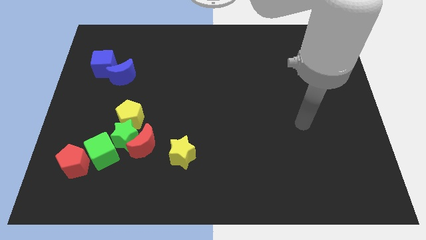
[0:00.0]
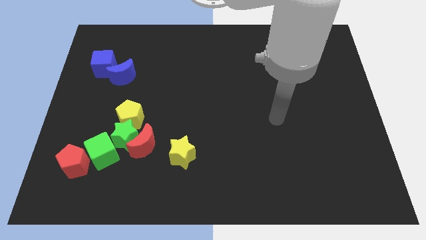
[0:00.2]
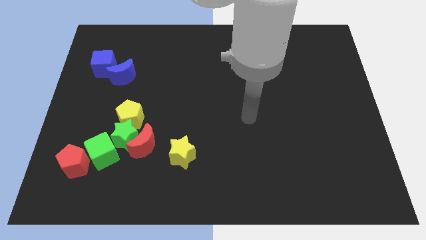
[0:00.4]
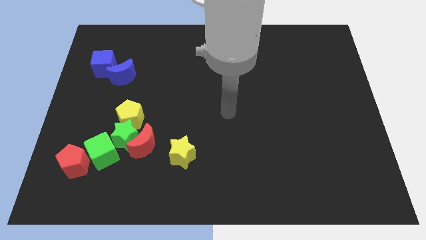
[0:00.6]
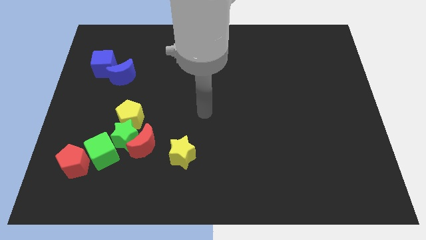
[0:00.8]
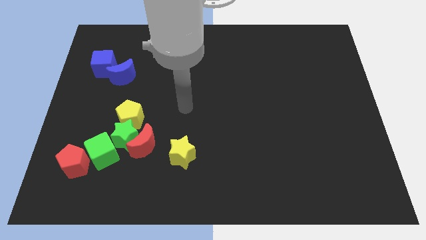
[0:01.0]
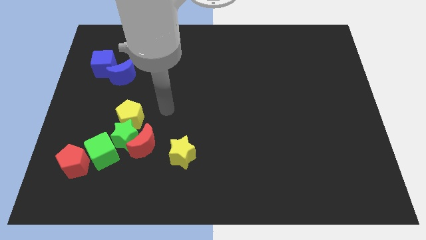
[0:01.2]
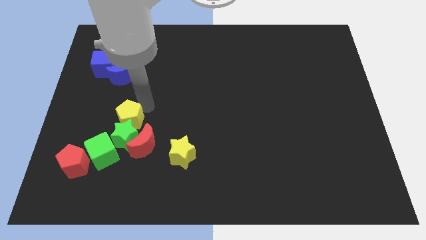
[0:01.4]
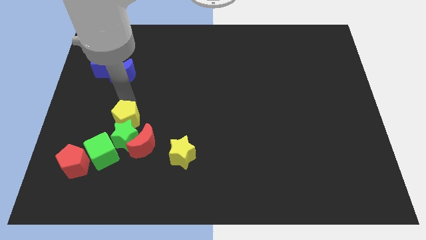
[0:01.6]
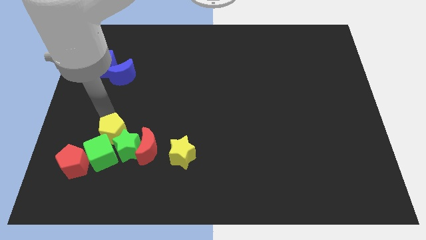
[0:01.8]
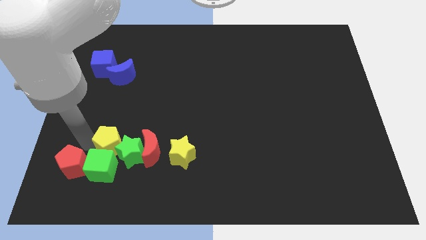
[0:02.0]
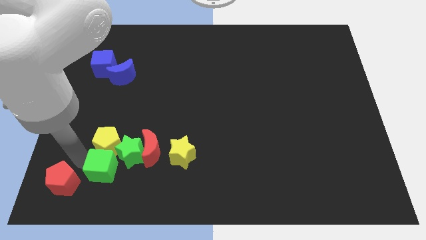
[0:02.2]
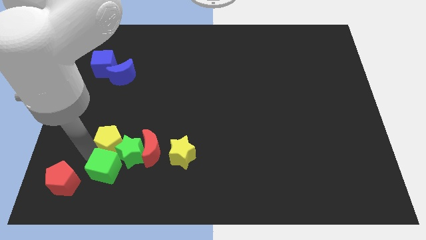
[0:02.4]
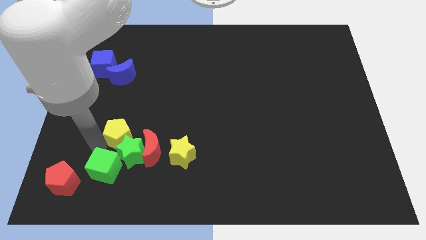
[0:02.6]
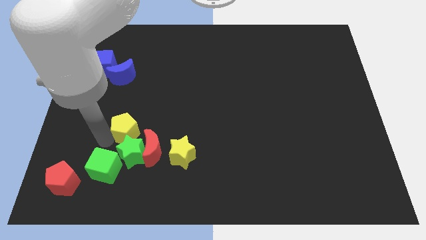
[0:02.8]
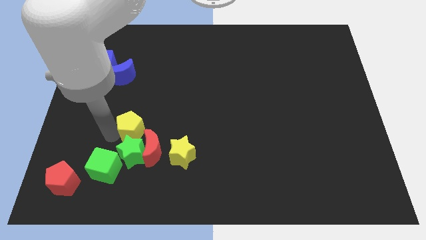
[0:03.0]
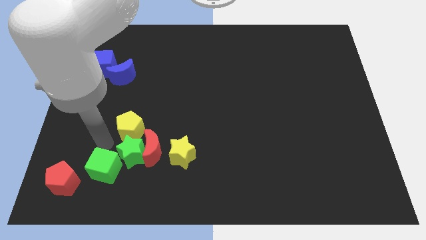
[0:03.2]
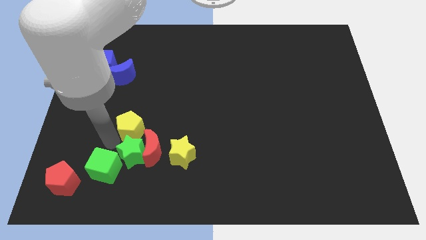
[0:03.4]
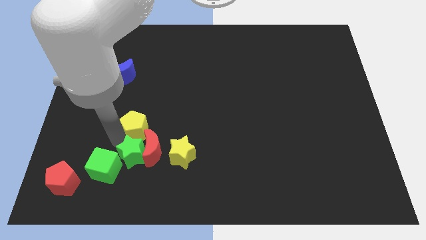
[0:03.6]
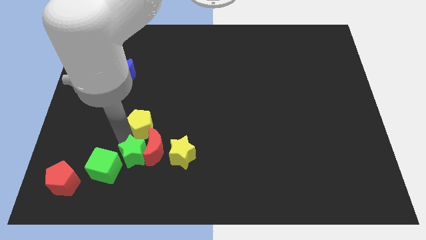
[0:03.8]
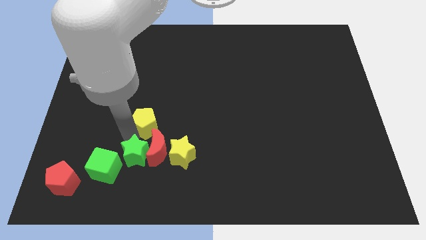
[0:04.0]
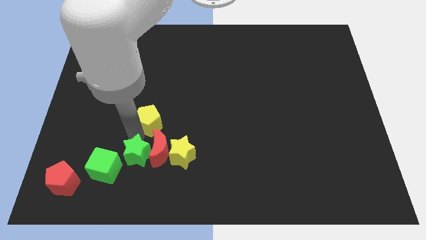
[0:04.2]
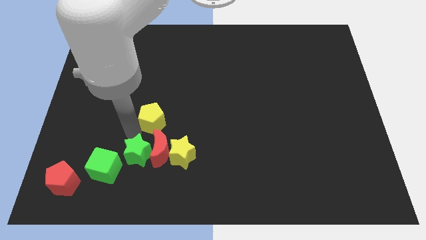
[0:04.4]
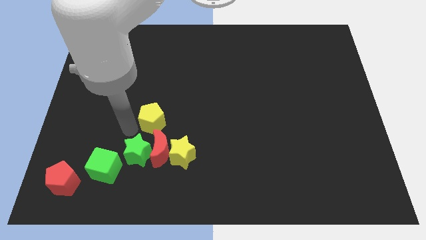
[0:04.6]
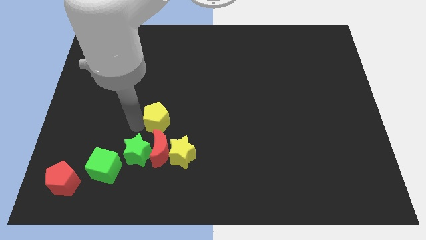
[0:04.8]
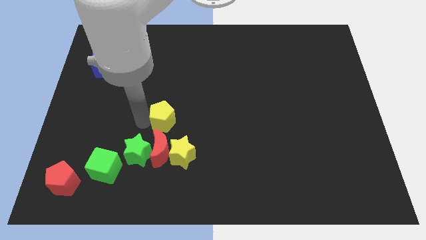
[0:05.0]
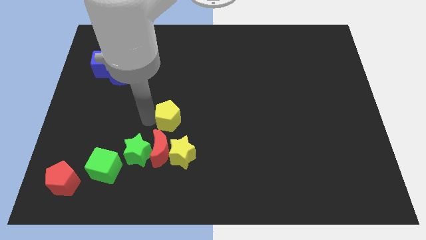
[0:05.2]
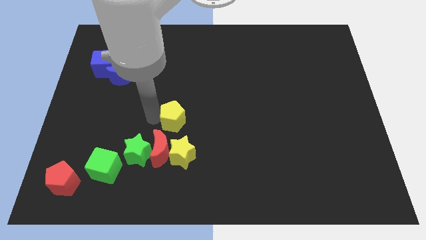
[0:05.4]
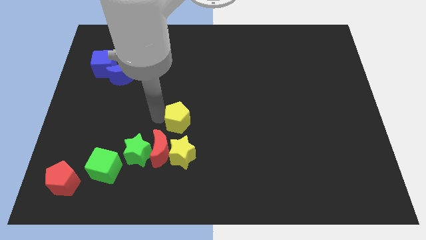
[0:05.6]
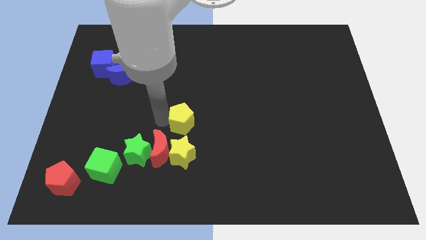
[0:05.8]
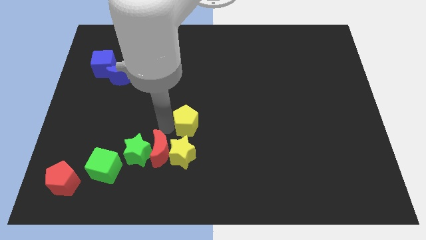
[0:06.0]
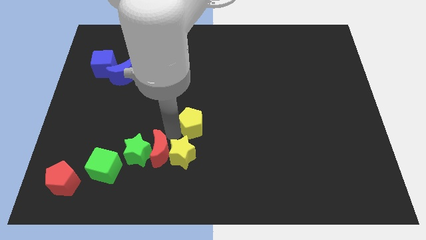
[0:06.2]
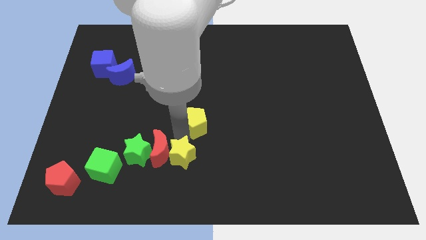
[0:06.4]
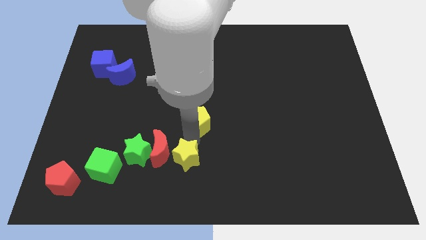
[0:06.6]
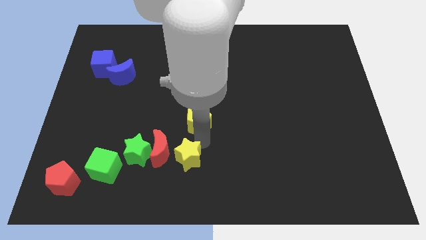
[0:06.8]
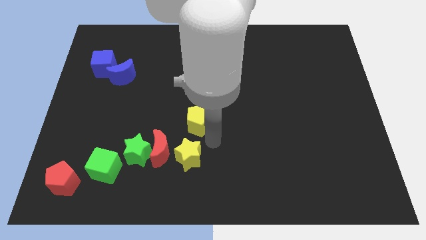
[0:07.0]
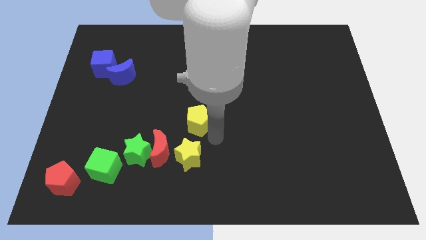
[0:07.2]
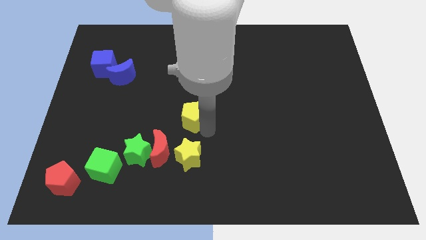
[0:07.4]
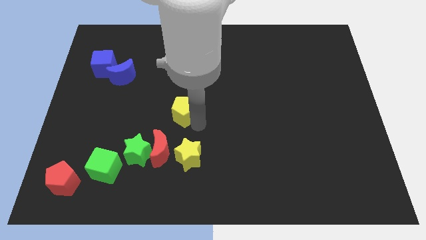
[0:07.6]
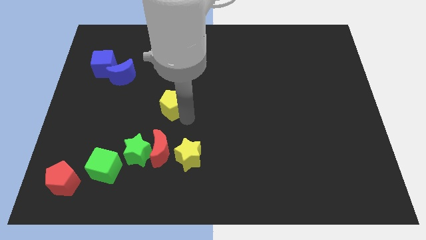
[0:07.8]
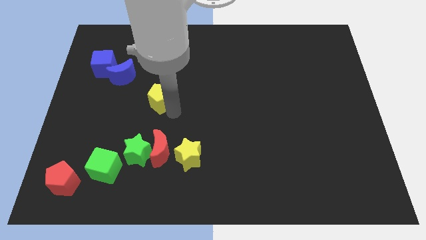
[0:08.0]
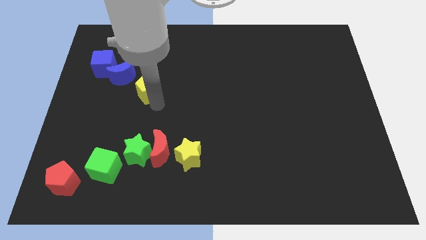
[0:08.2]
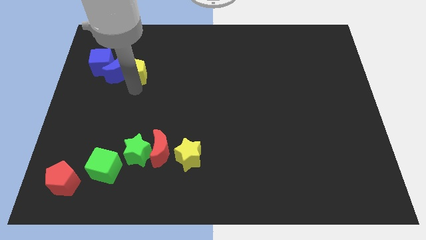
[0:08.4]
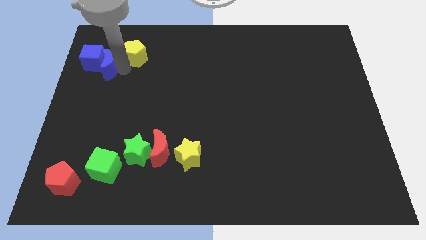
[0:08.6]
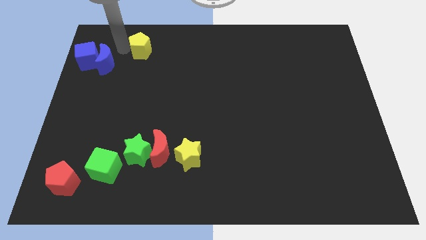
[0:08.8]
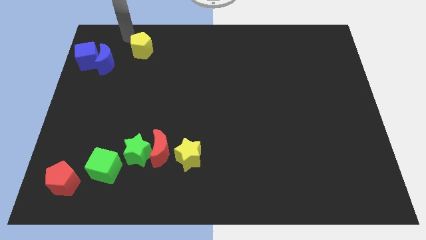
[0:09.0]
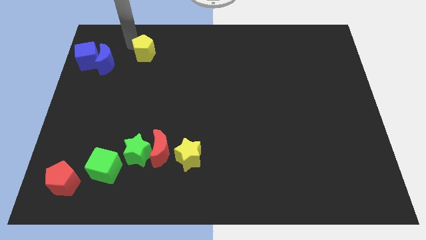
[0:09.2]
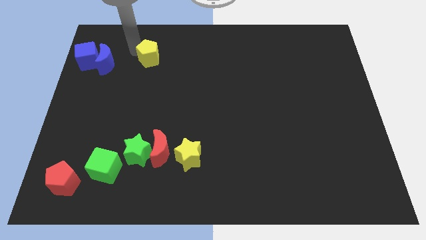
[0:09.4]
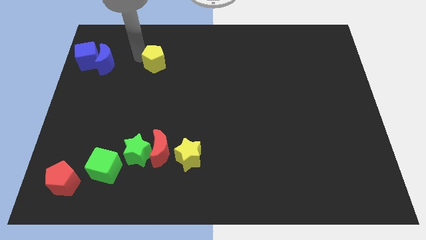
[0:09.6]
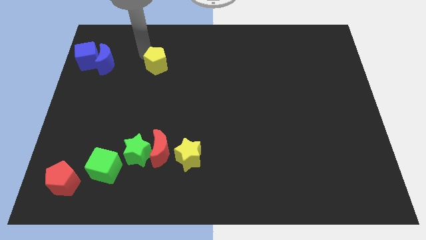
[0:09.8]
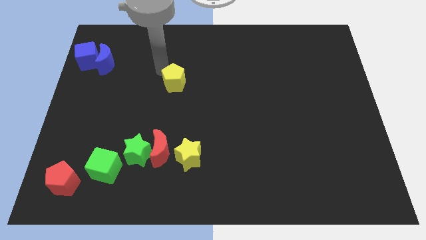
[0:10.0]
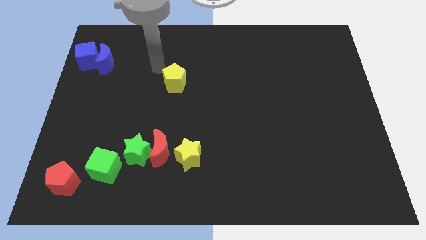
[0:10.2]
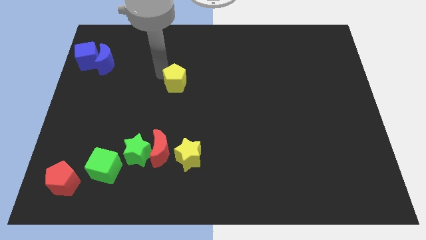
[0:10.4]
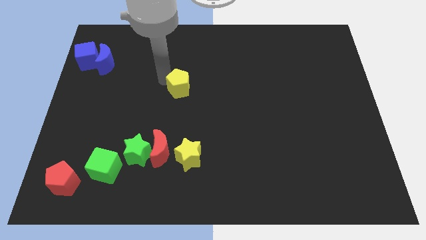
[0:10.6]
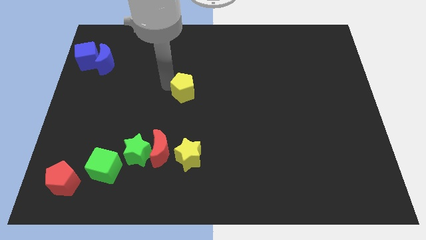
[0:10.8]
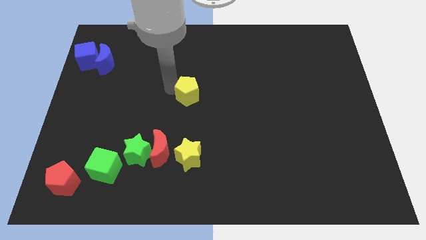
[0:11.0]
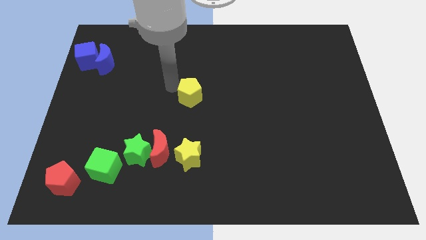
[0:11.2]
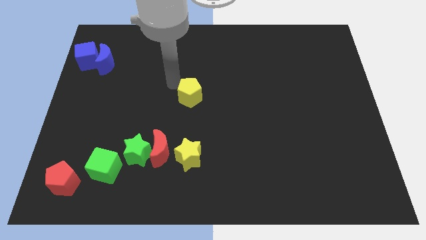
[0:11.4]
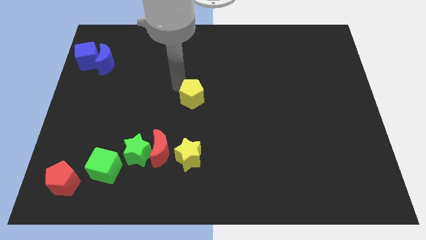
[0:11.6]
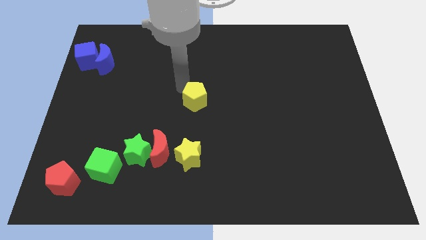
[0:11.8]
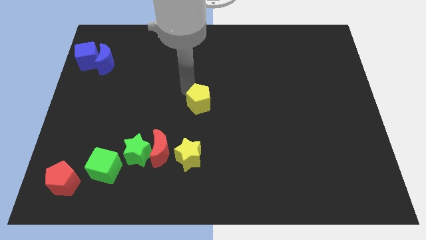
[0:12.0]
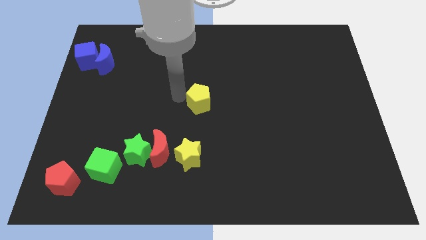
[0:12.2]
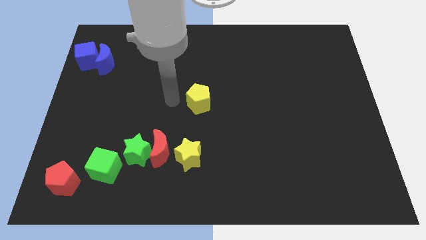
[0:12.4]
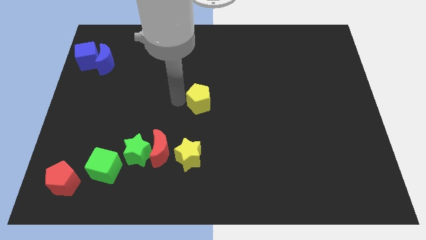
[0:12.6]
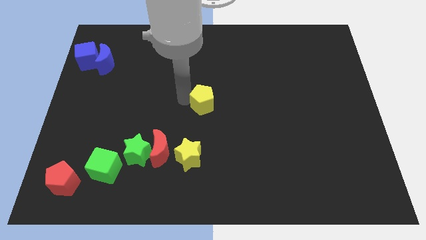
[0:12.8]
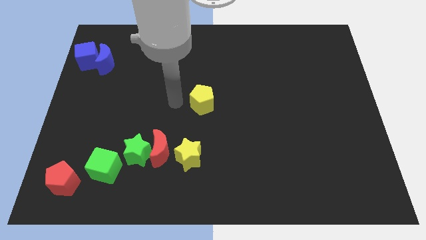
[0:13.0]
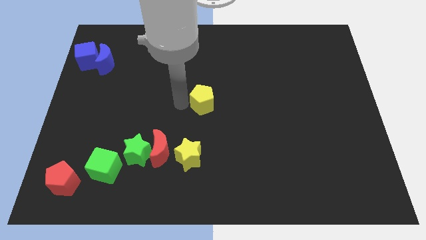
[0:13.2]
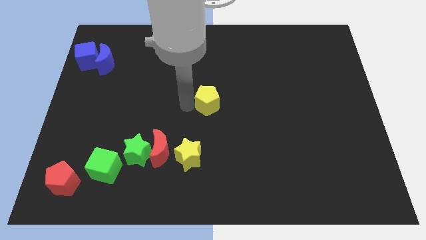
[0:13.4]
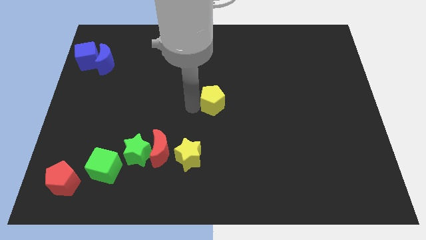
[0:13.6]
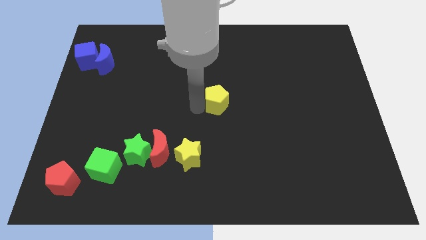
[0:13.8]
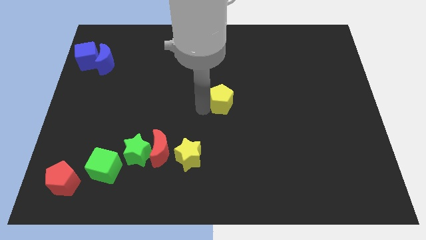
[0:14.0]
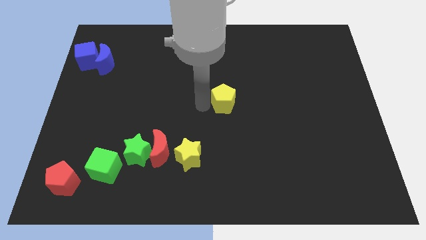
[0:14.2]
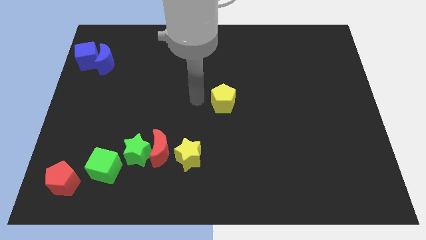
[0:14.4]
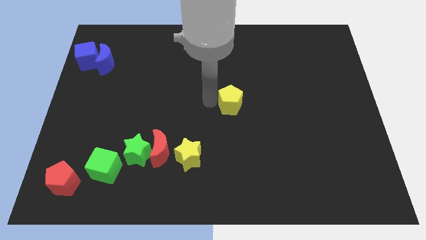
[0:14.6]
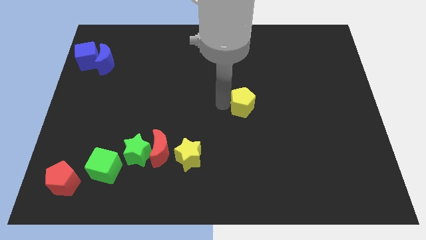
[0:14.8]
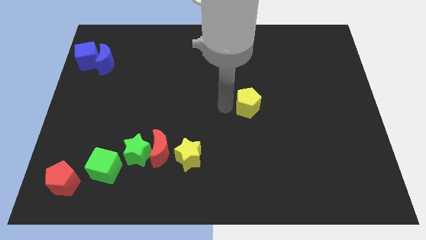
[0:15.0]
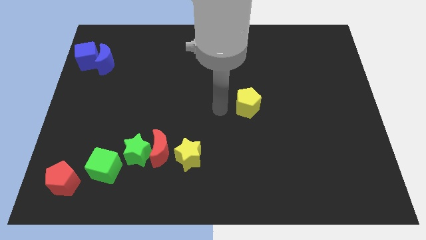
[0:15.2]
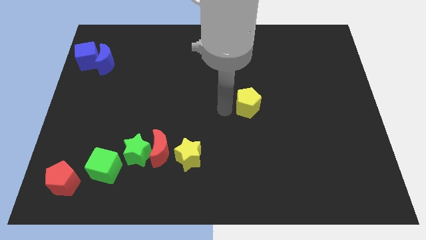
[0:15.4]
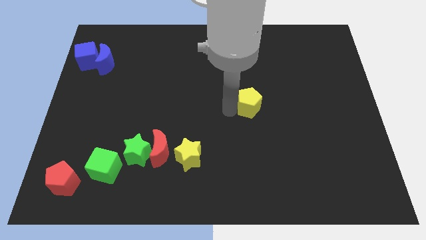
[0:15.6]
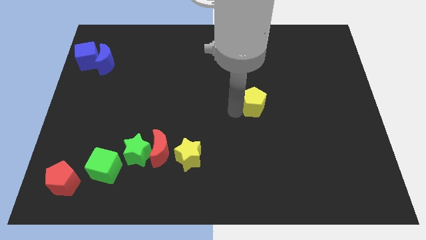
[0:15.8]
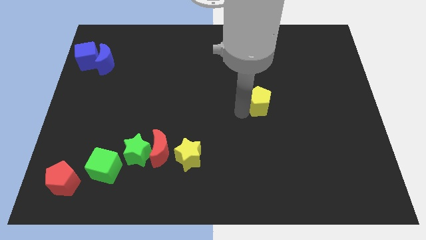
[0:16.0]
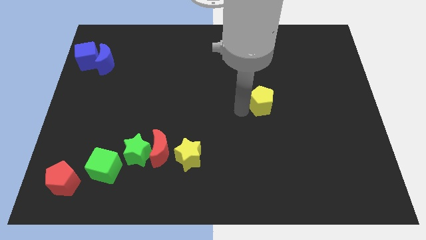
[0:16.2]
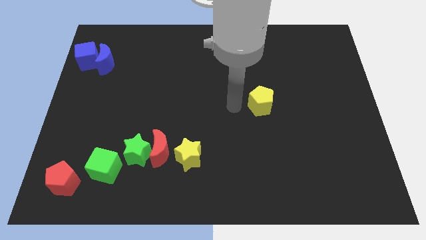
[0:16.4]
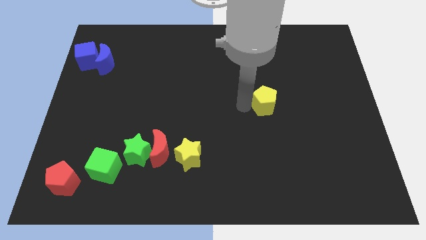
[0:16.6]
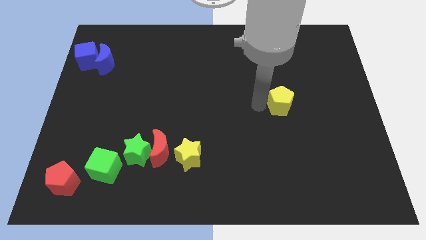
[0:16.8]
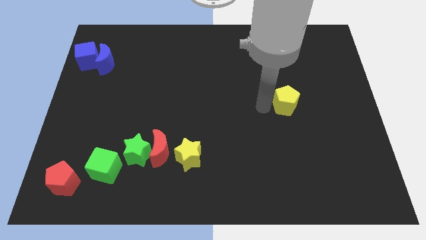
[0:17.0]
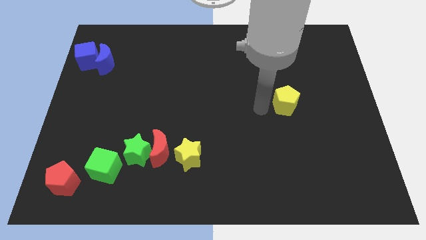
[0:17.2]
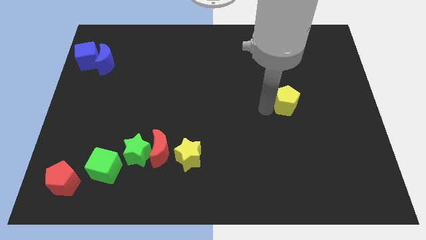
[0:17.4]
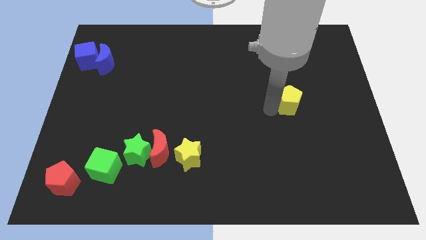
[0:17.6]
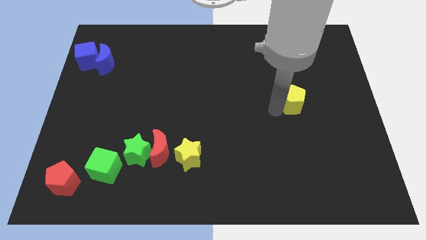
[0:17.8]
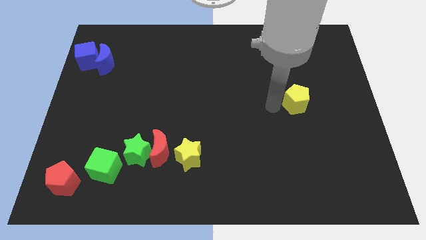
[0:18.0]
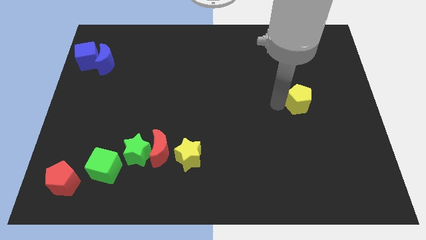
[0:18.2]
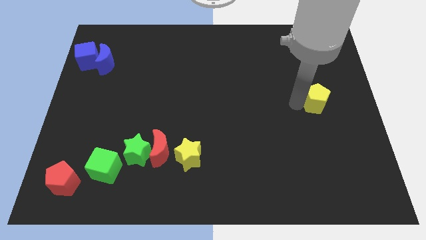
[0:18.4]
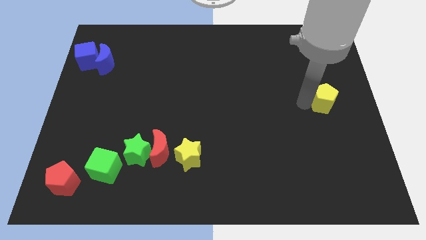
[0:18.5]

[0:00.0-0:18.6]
move the yellow pentagon to the center right
